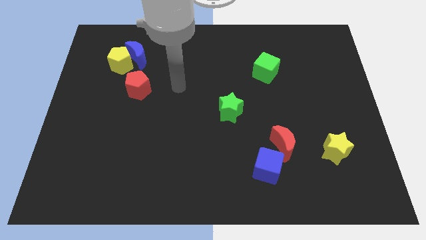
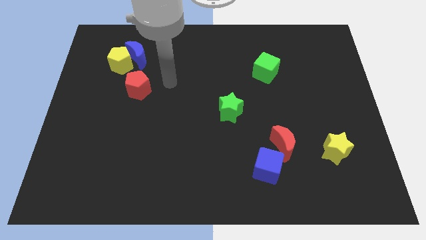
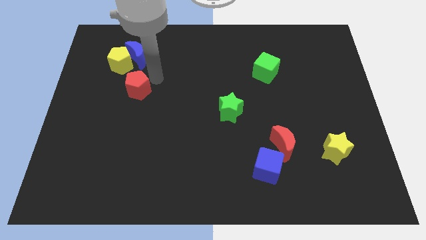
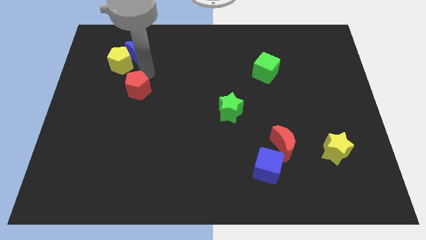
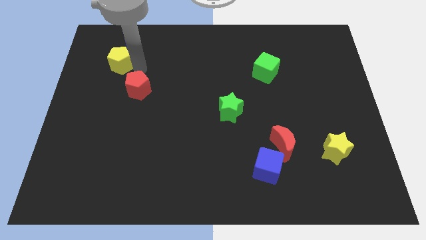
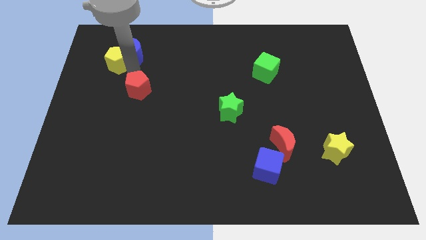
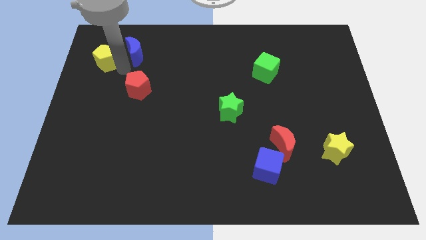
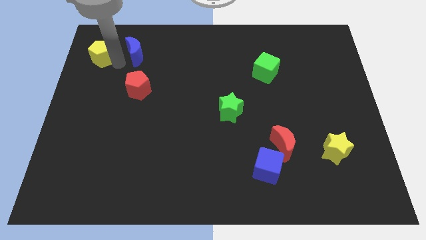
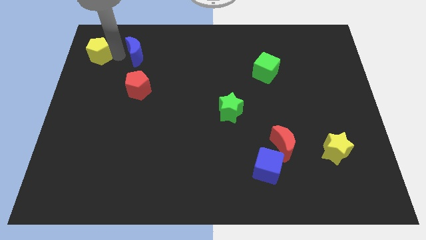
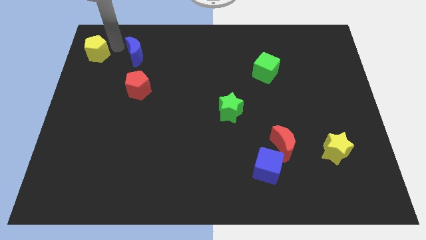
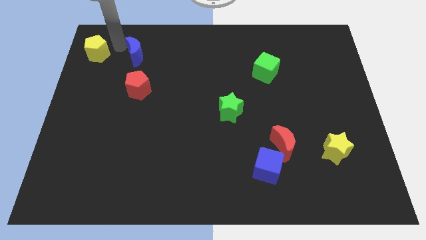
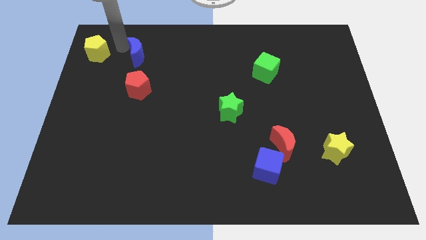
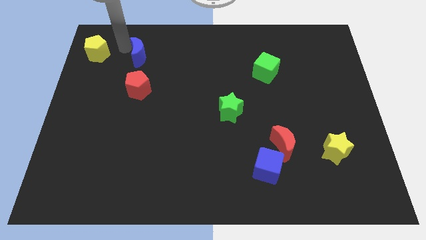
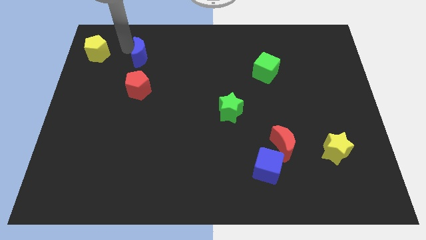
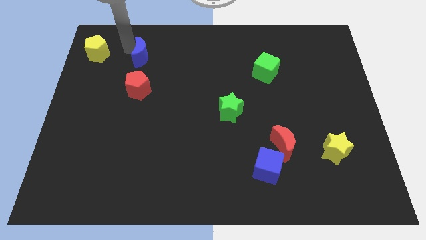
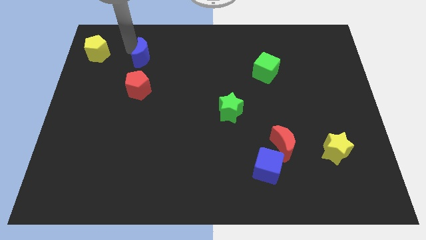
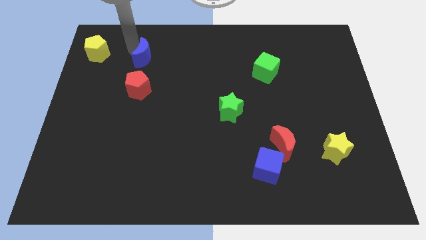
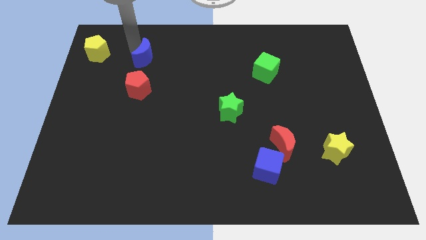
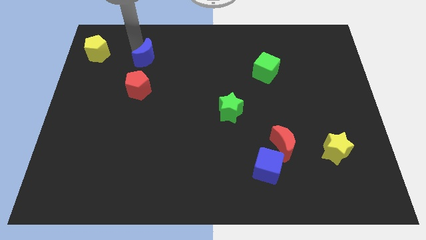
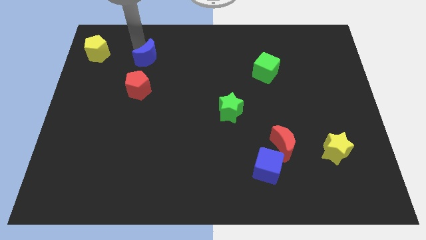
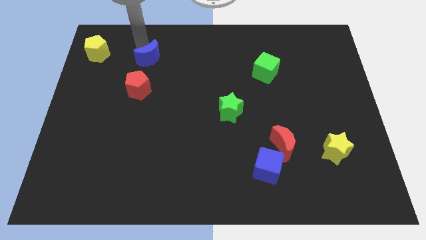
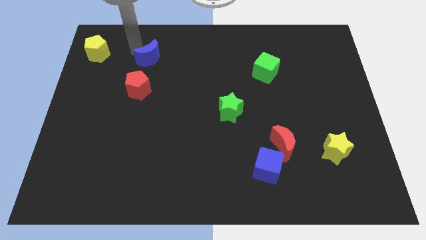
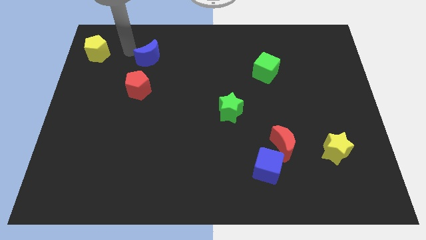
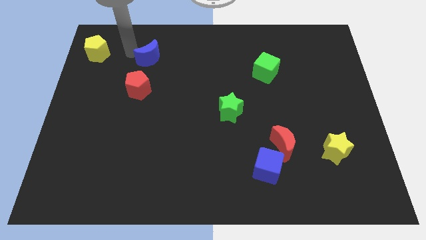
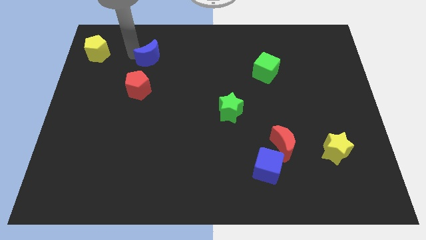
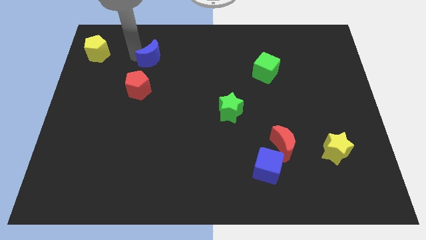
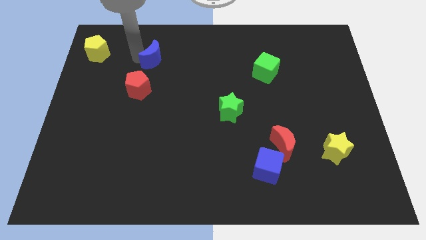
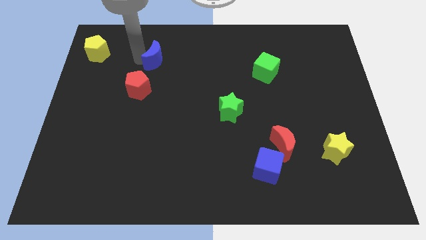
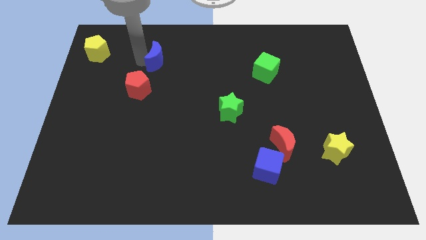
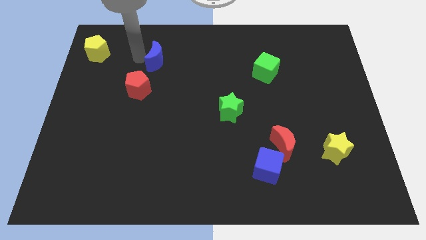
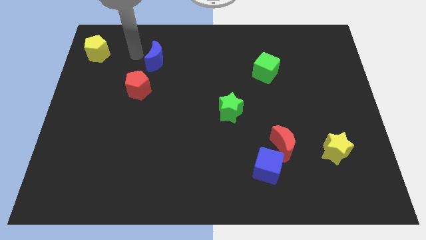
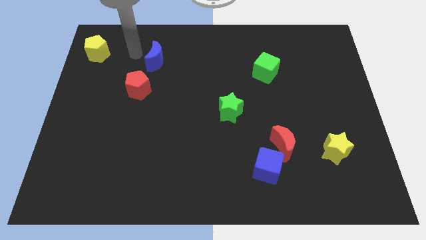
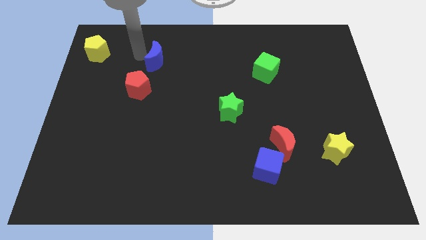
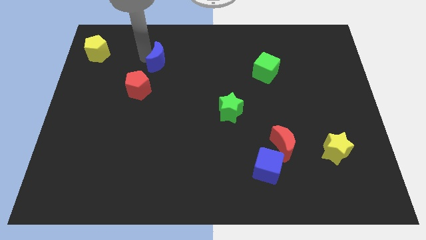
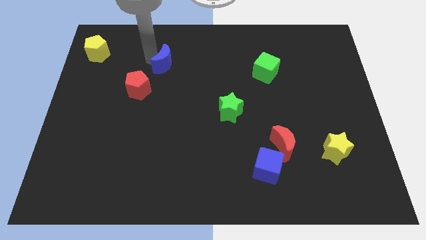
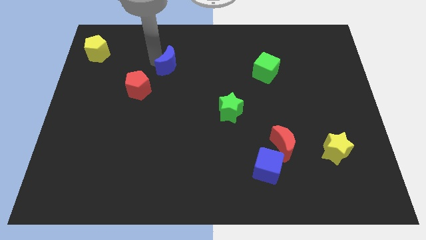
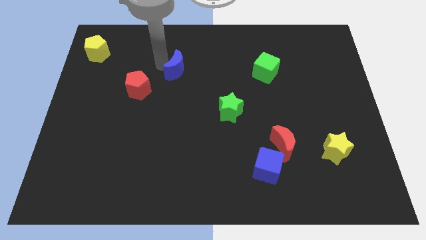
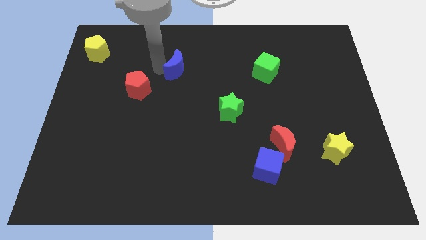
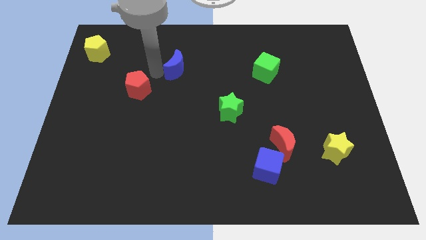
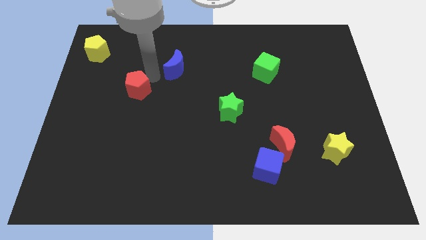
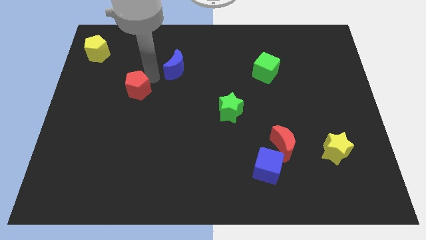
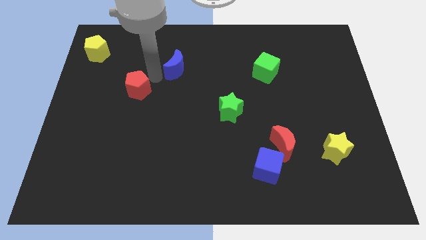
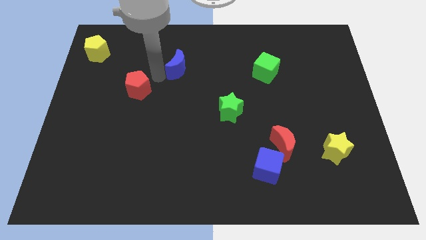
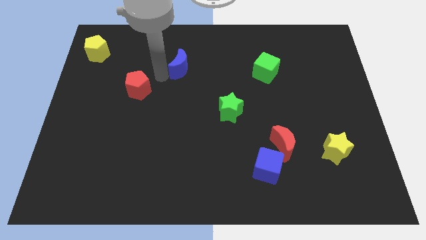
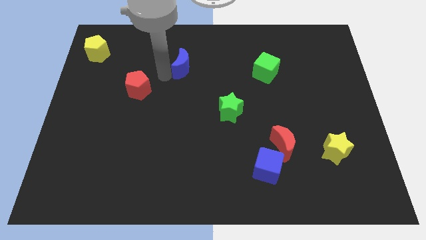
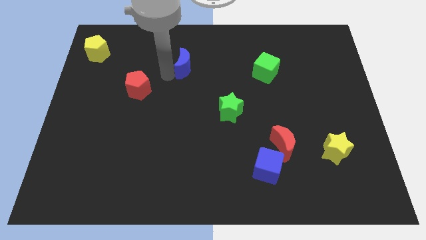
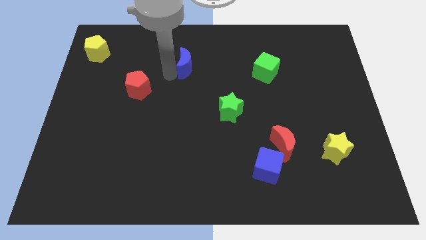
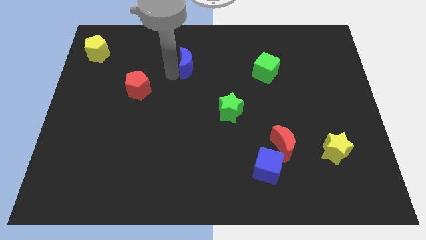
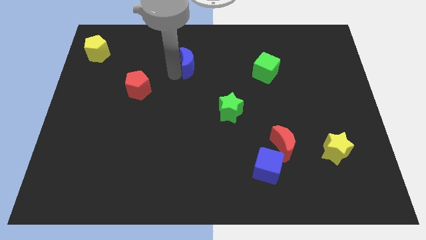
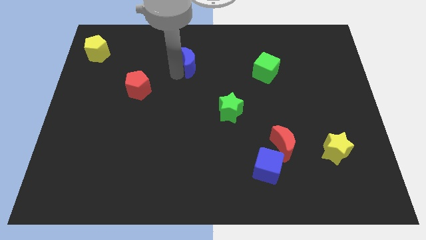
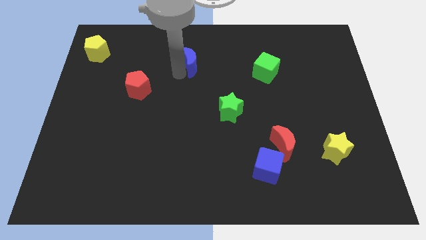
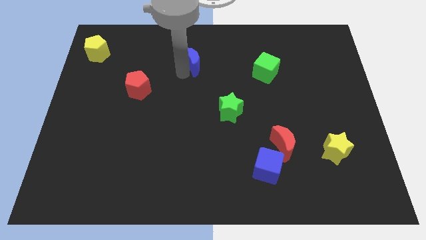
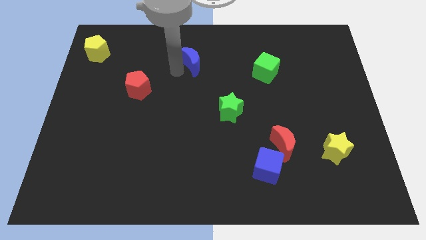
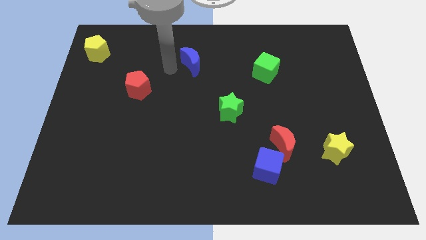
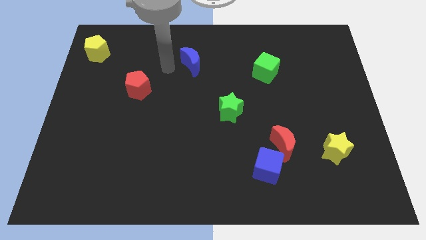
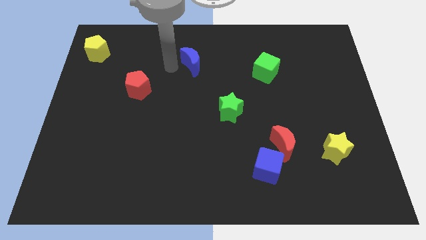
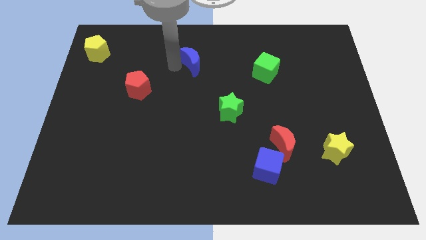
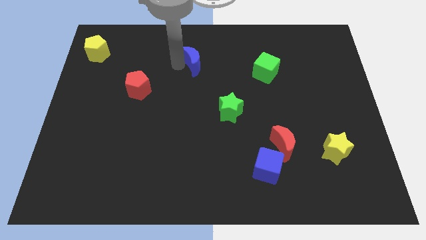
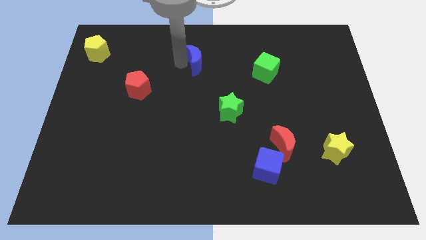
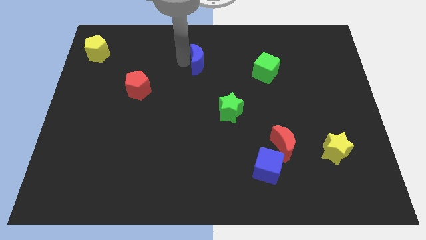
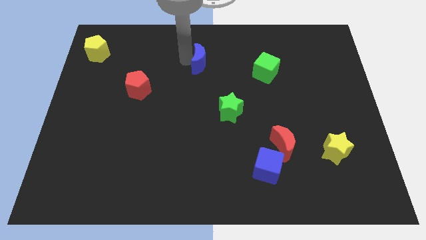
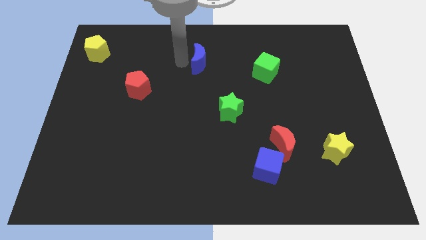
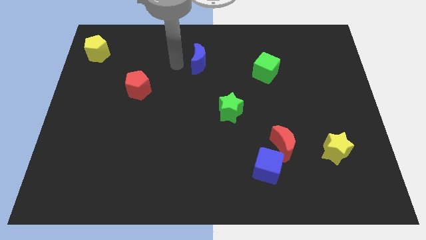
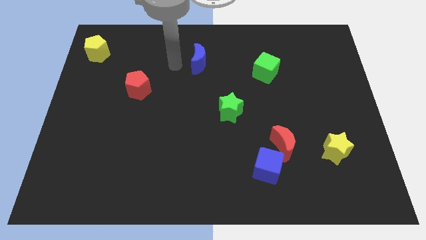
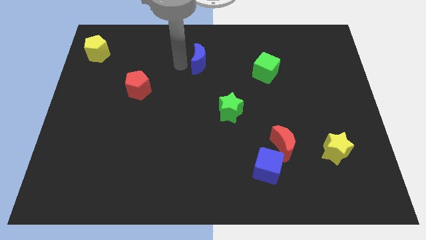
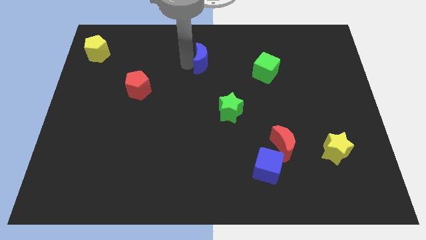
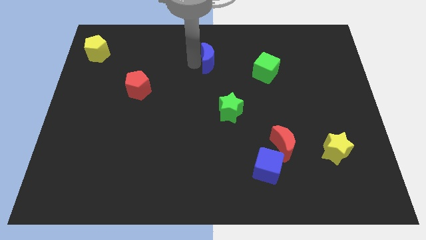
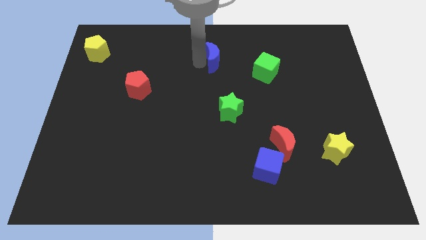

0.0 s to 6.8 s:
move the blue moon right

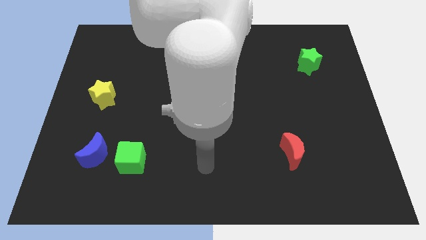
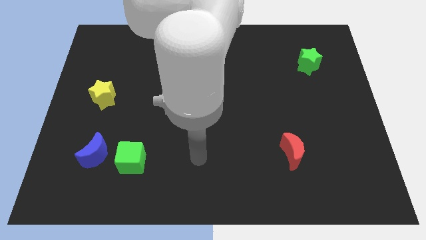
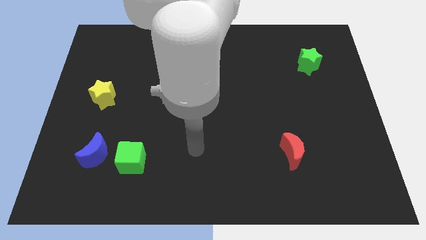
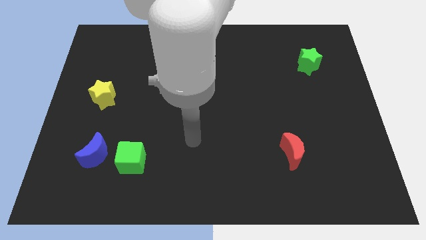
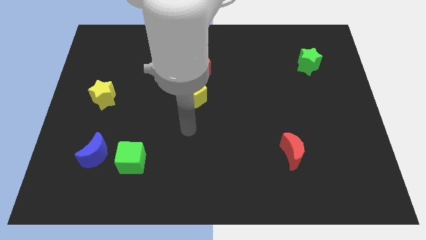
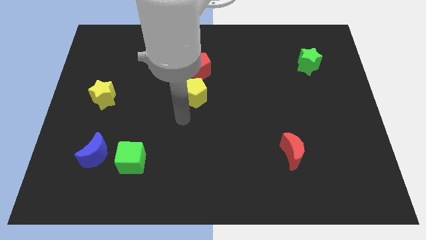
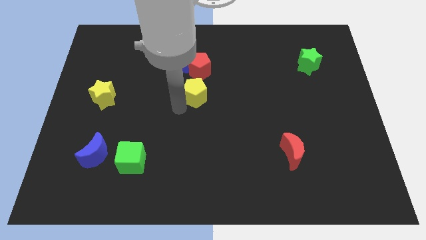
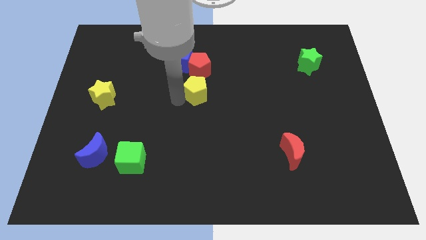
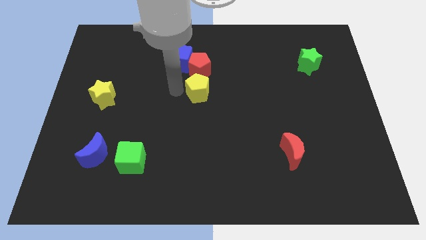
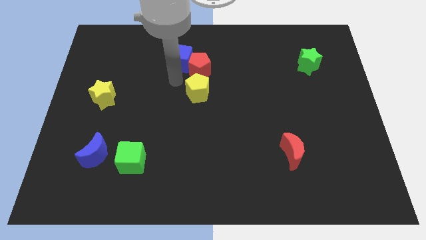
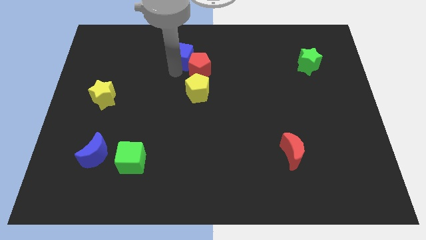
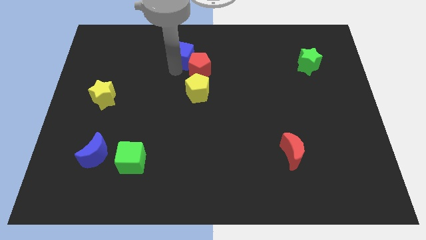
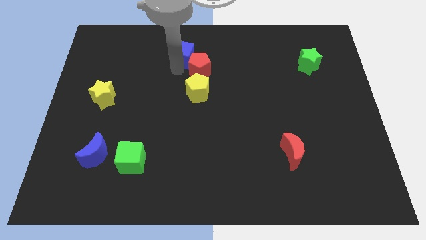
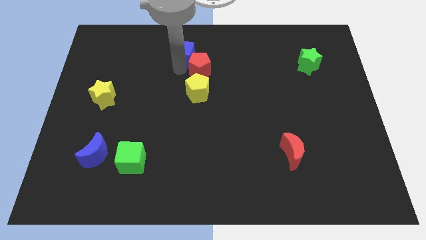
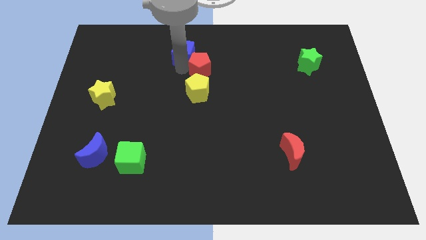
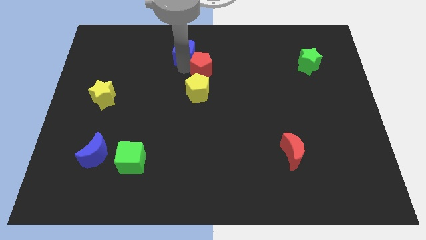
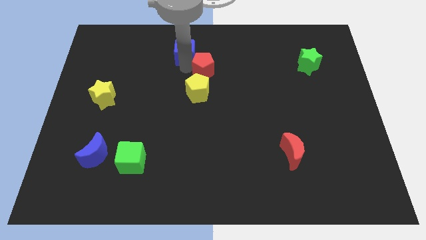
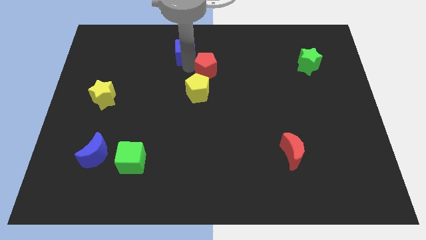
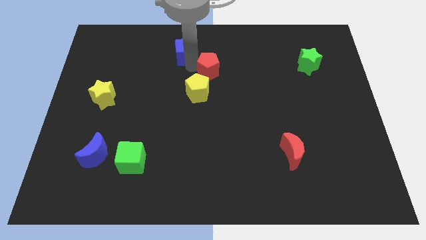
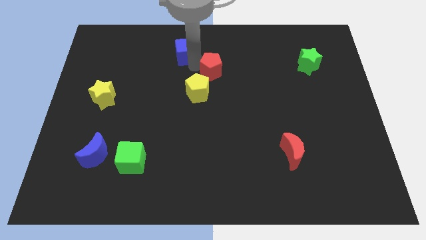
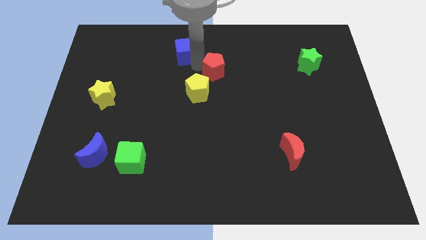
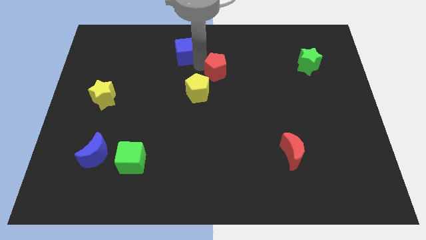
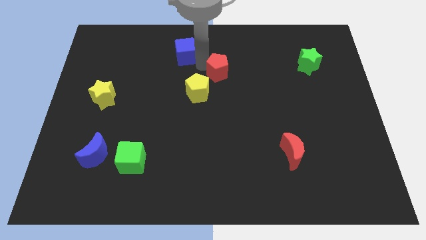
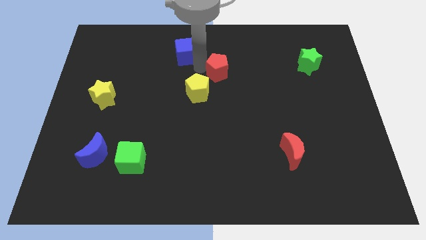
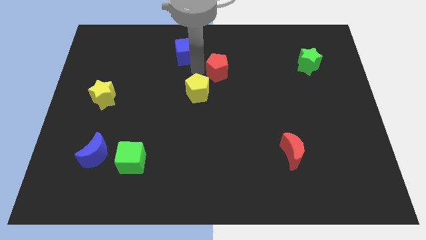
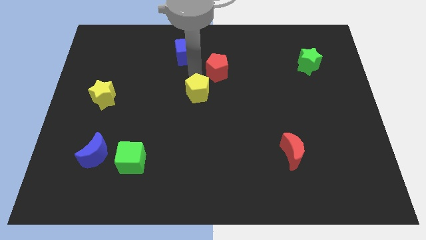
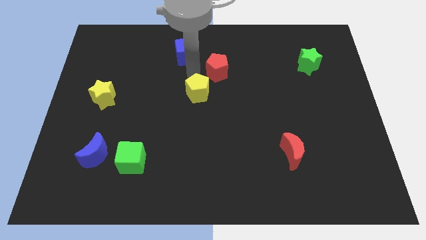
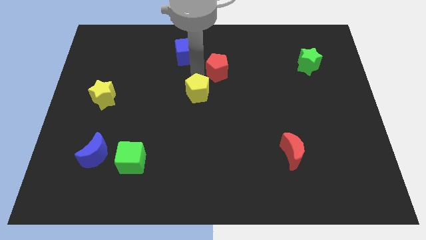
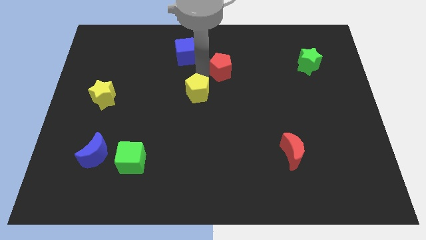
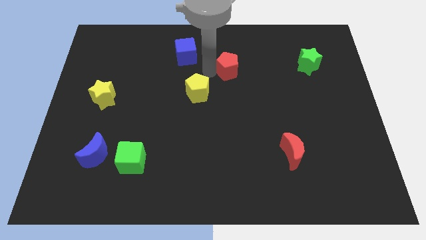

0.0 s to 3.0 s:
slightly move the red pentagon right
